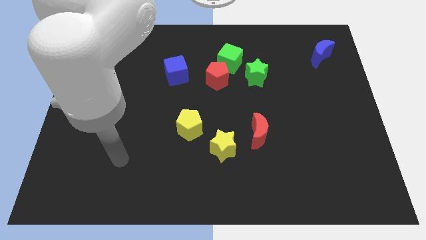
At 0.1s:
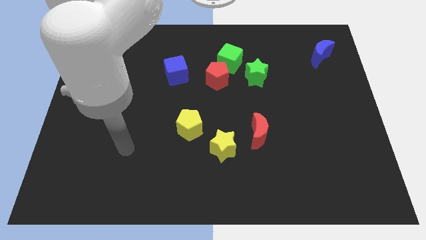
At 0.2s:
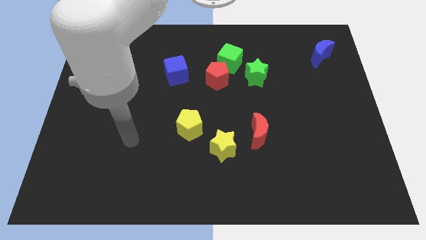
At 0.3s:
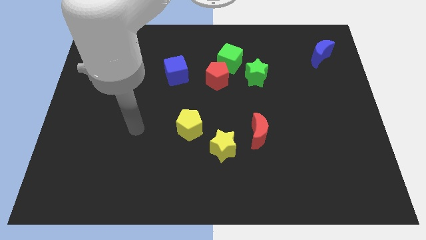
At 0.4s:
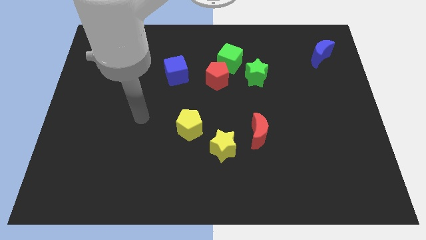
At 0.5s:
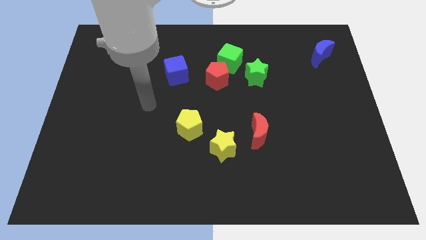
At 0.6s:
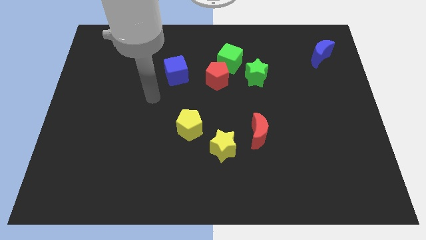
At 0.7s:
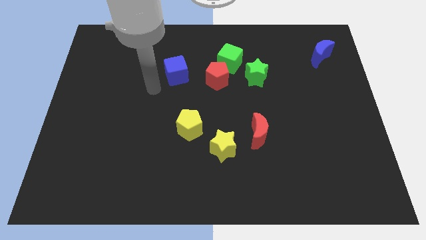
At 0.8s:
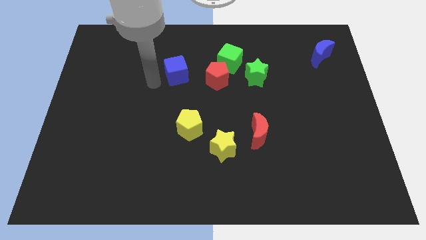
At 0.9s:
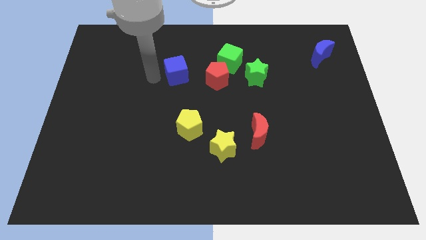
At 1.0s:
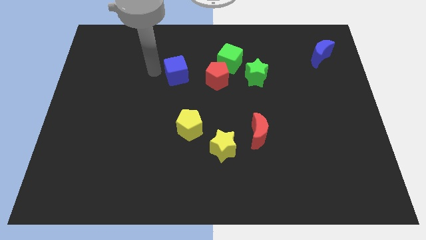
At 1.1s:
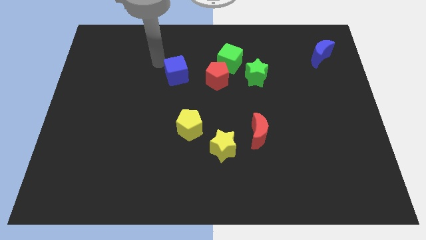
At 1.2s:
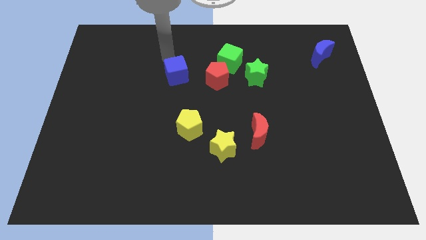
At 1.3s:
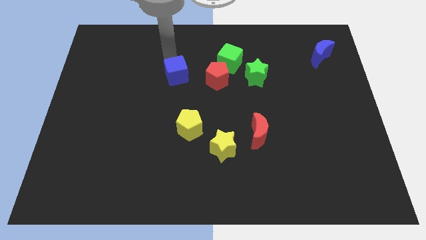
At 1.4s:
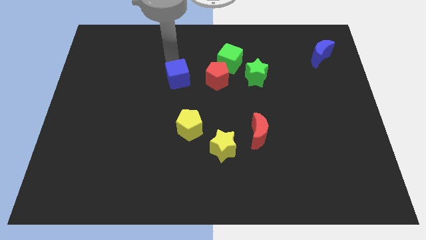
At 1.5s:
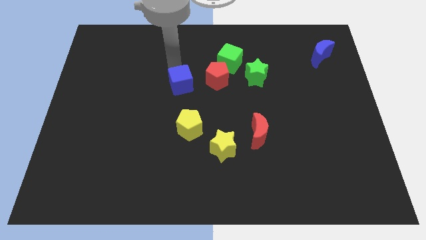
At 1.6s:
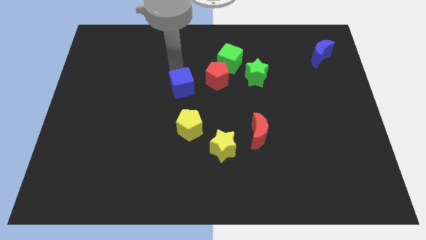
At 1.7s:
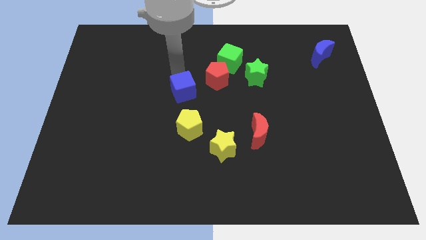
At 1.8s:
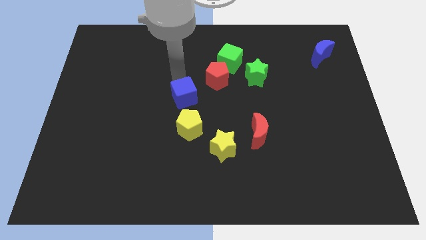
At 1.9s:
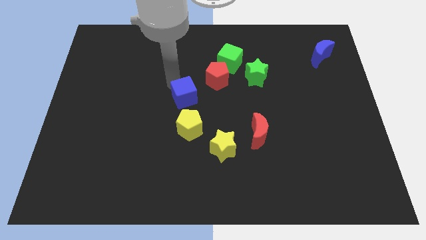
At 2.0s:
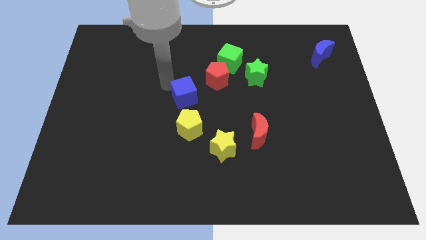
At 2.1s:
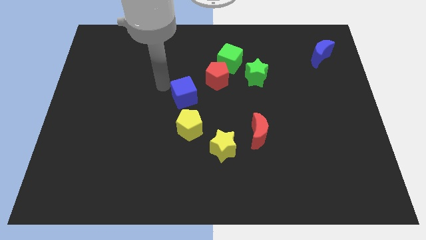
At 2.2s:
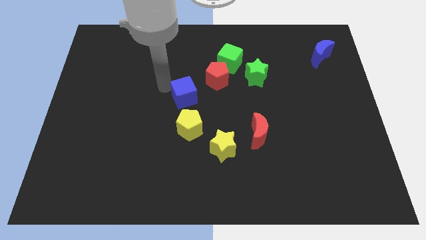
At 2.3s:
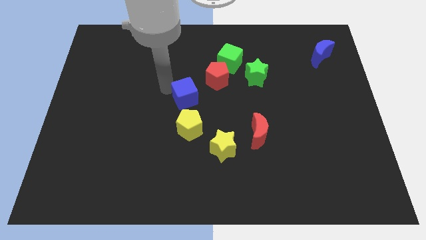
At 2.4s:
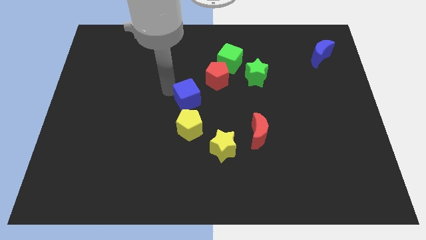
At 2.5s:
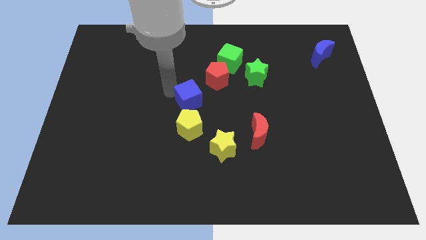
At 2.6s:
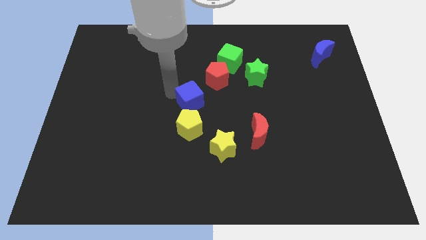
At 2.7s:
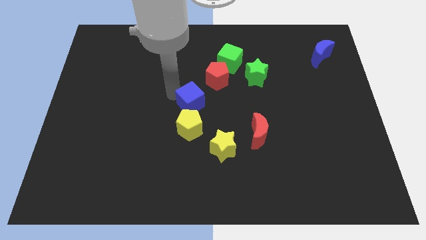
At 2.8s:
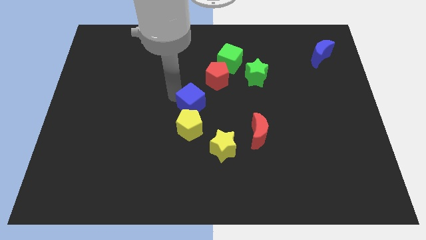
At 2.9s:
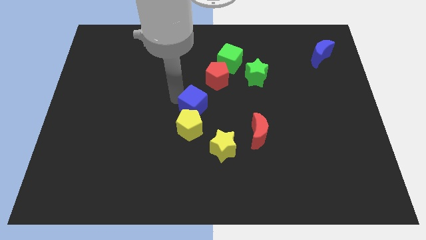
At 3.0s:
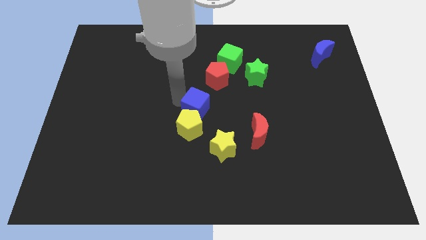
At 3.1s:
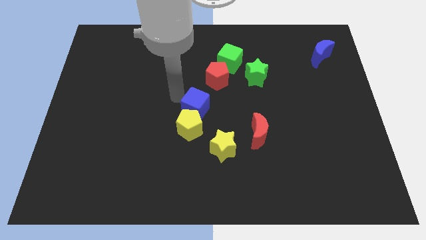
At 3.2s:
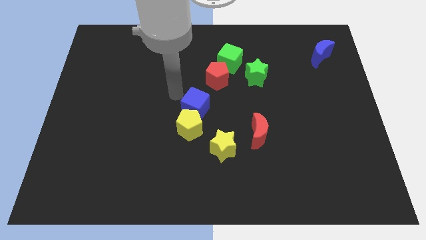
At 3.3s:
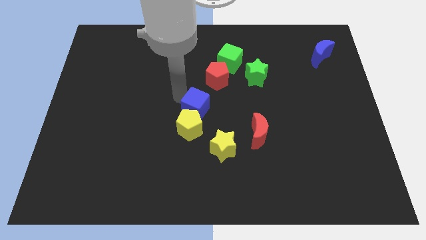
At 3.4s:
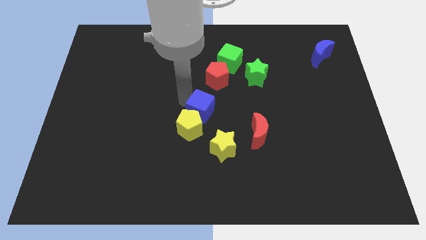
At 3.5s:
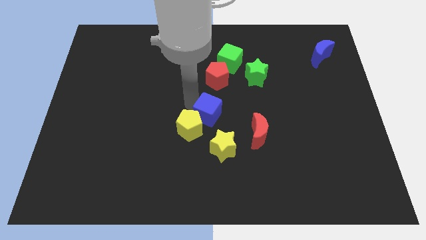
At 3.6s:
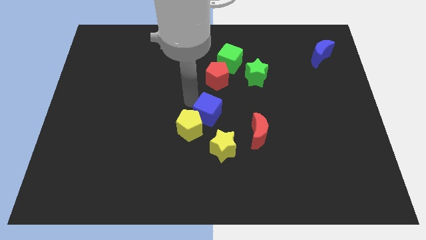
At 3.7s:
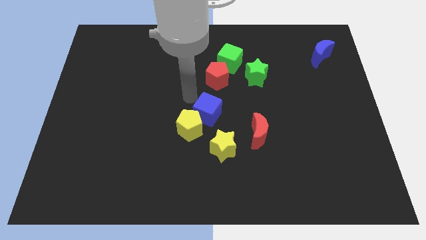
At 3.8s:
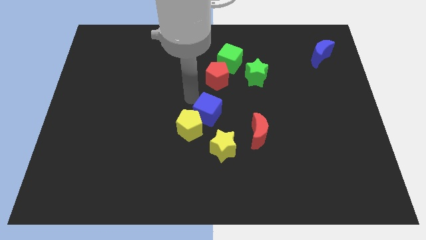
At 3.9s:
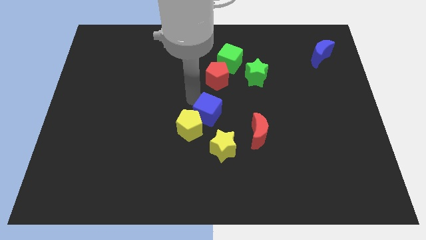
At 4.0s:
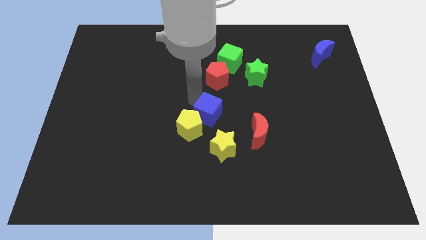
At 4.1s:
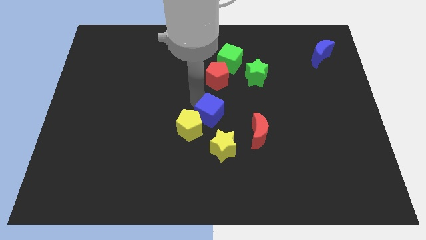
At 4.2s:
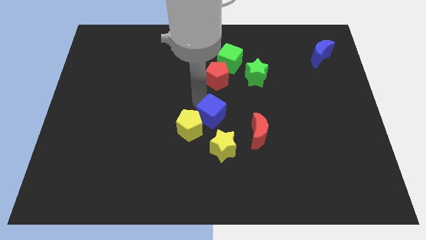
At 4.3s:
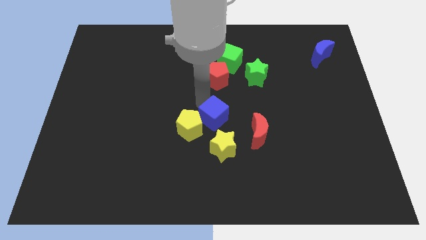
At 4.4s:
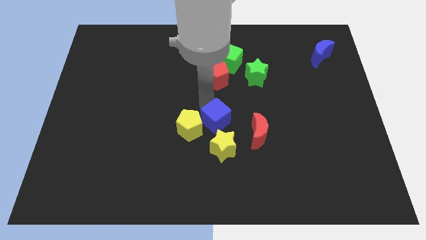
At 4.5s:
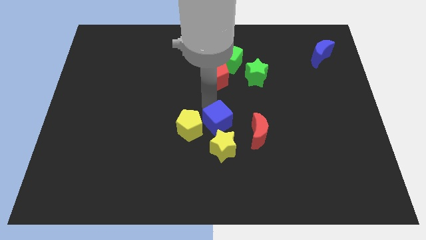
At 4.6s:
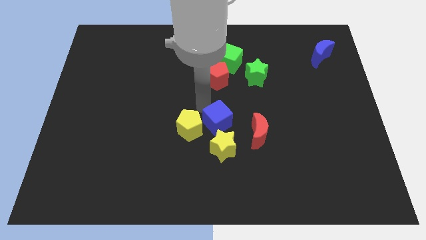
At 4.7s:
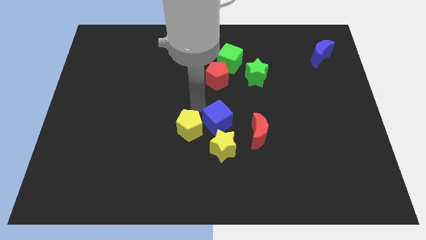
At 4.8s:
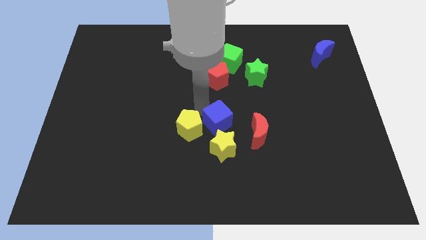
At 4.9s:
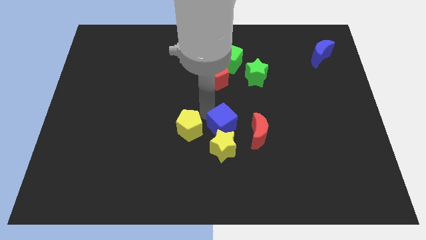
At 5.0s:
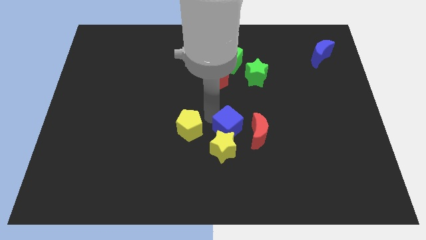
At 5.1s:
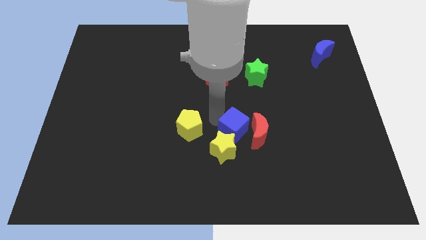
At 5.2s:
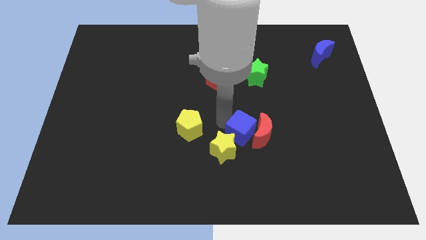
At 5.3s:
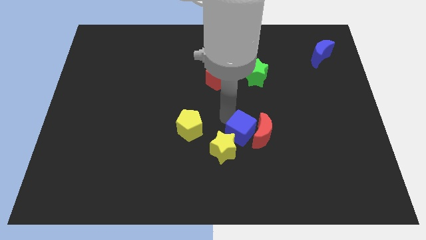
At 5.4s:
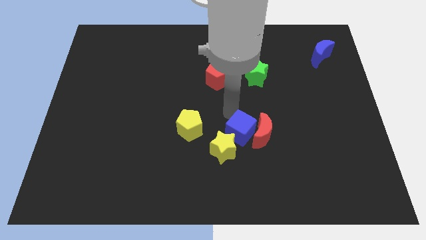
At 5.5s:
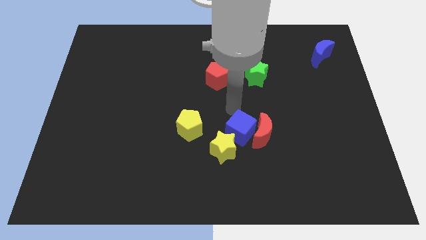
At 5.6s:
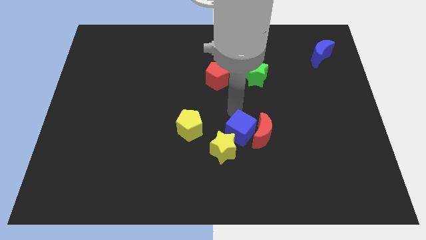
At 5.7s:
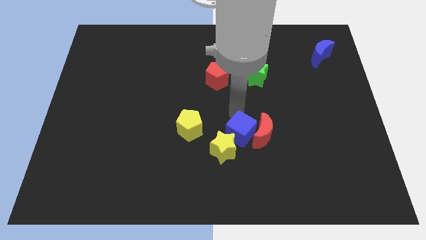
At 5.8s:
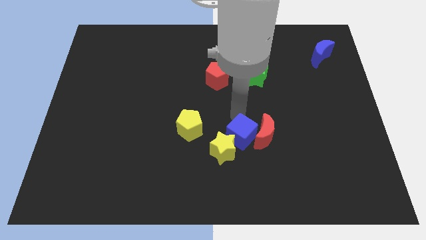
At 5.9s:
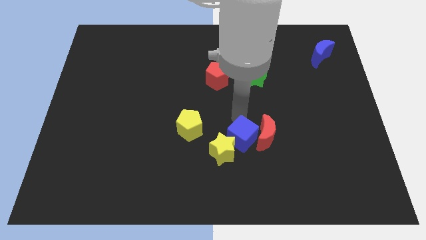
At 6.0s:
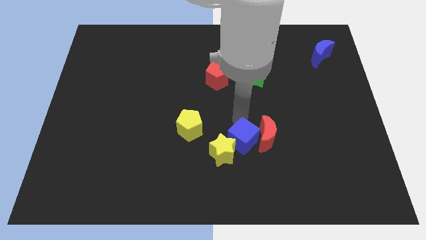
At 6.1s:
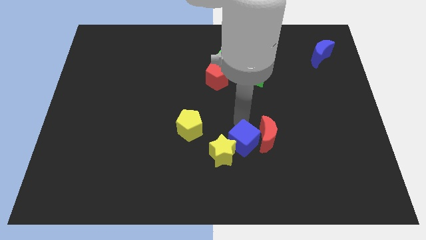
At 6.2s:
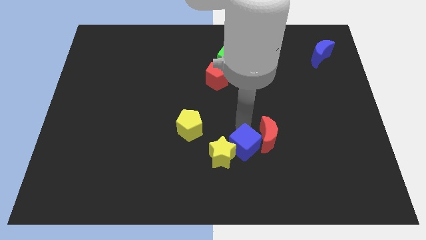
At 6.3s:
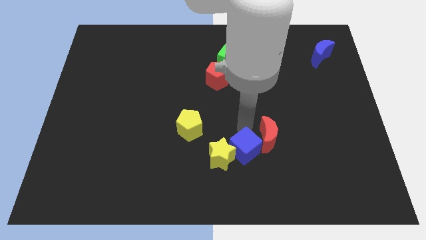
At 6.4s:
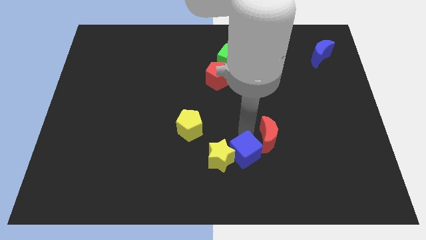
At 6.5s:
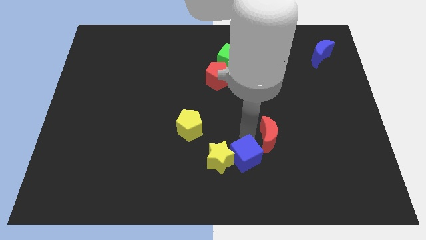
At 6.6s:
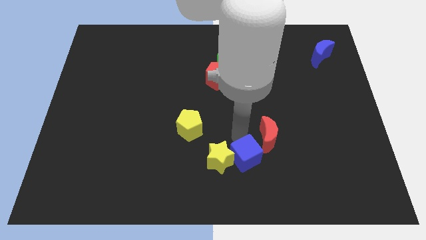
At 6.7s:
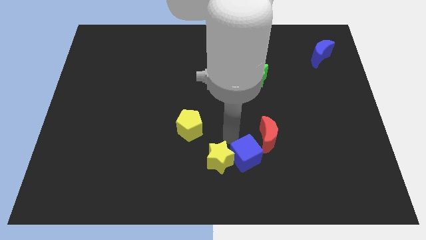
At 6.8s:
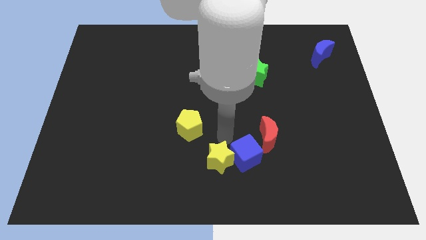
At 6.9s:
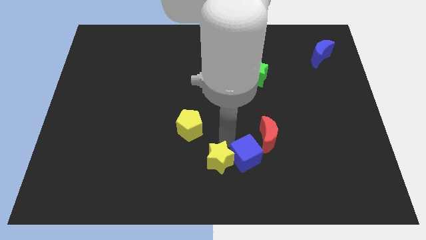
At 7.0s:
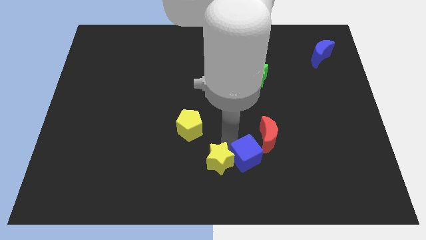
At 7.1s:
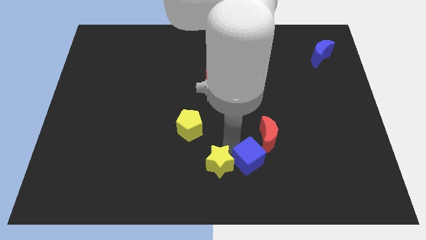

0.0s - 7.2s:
push the blue cube to the bottom side of the red moon
